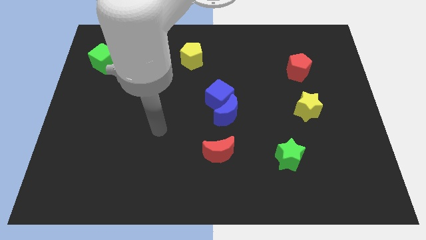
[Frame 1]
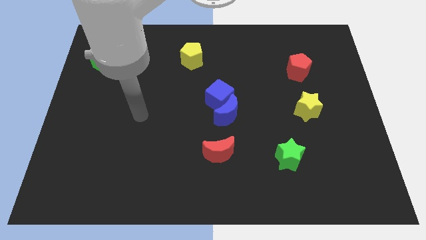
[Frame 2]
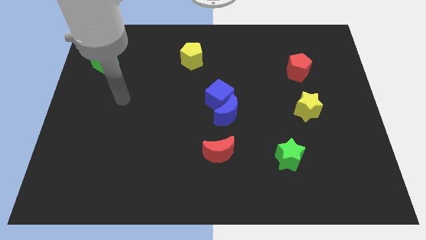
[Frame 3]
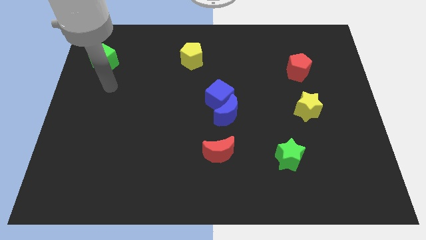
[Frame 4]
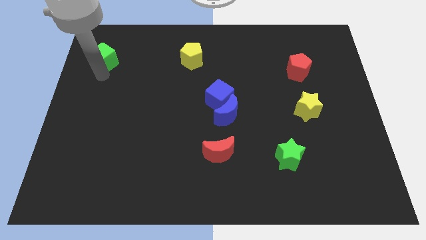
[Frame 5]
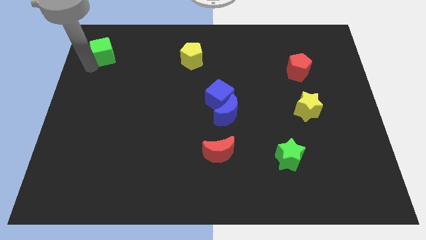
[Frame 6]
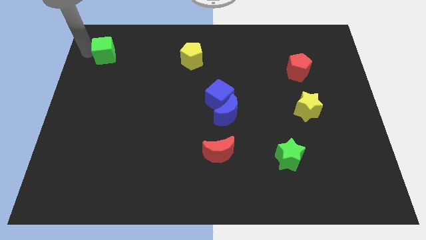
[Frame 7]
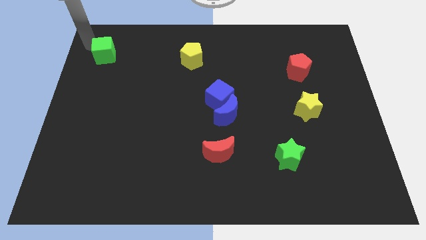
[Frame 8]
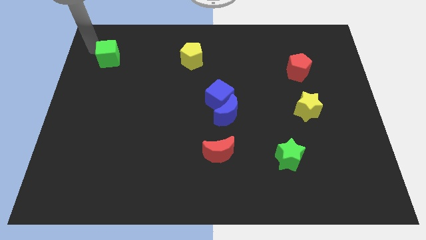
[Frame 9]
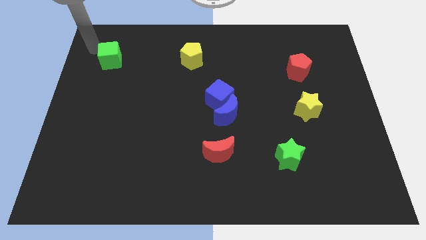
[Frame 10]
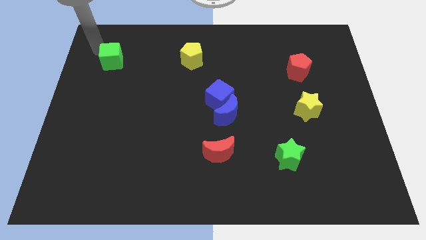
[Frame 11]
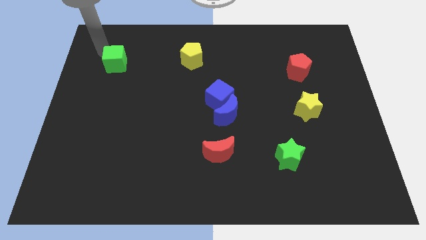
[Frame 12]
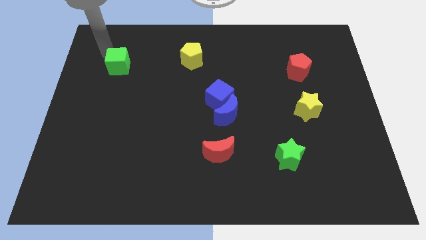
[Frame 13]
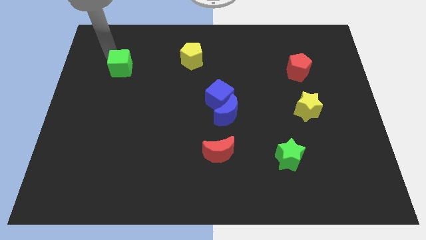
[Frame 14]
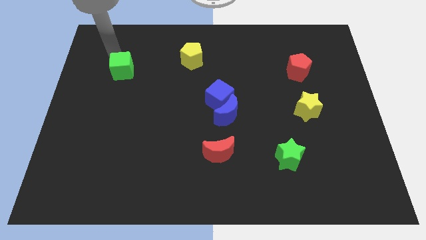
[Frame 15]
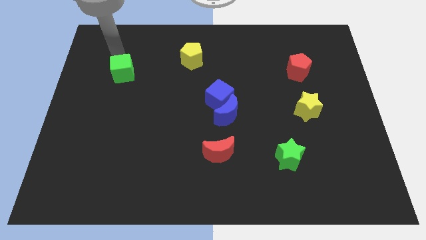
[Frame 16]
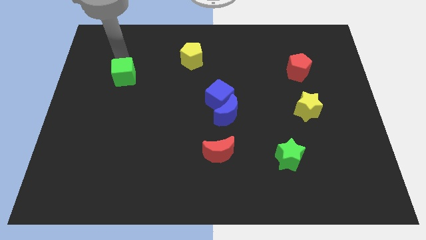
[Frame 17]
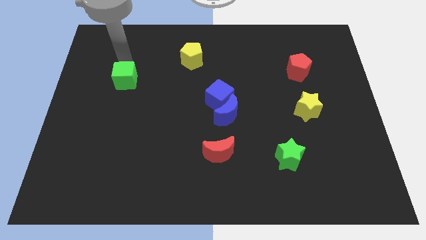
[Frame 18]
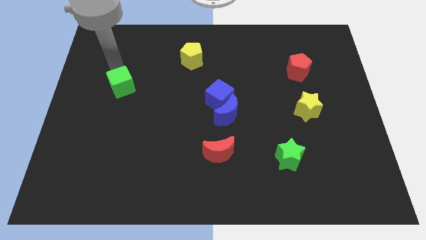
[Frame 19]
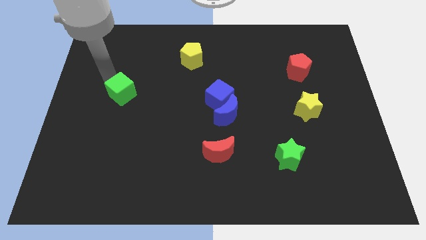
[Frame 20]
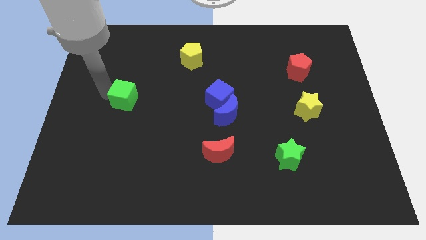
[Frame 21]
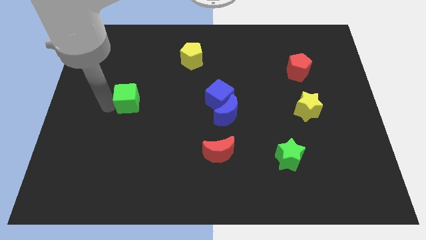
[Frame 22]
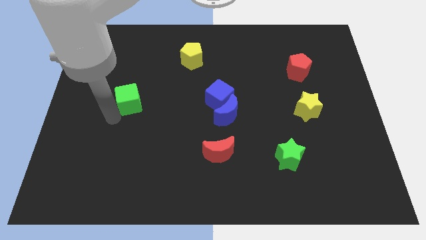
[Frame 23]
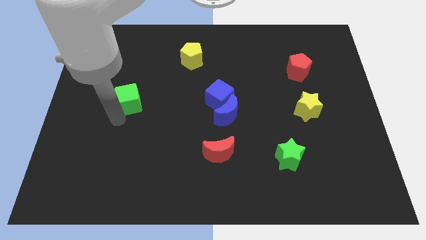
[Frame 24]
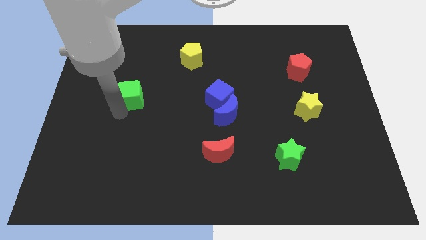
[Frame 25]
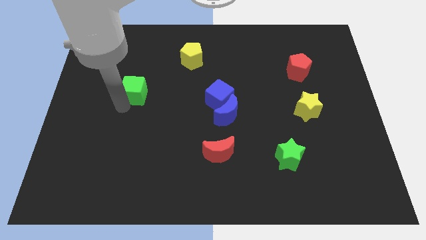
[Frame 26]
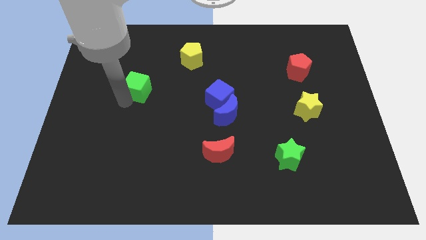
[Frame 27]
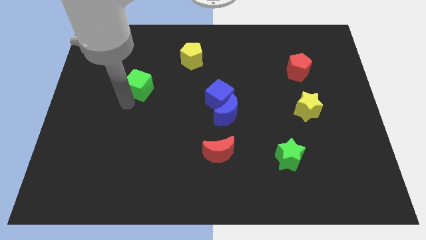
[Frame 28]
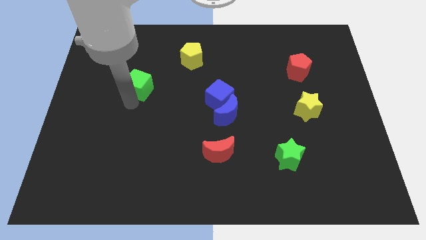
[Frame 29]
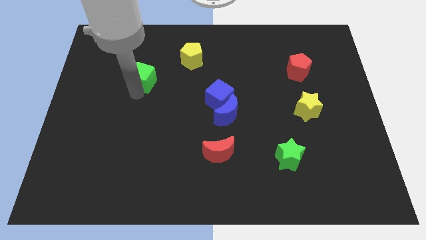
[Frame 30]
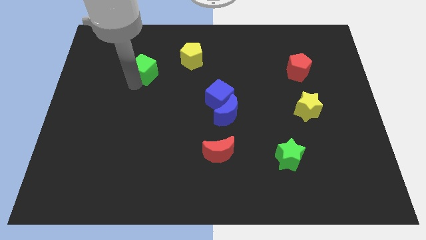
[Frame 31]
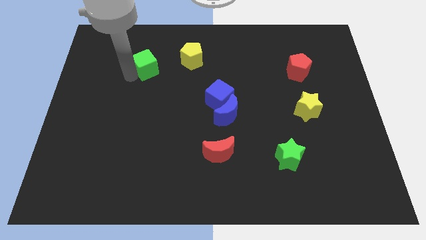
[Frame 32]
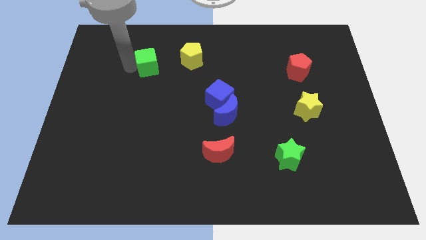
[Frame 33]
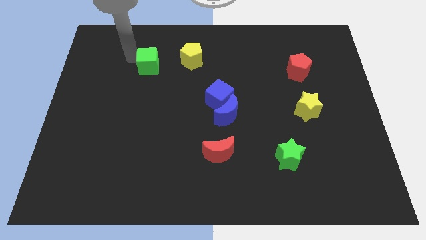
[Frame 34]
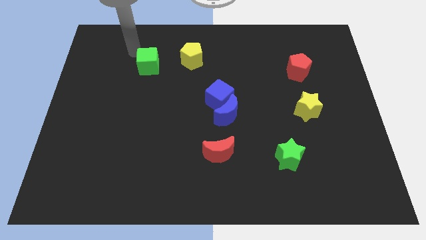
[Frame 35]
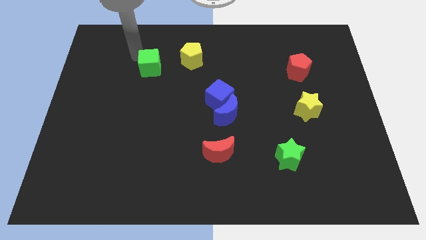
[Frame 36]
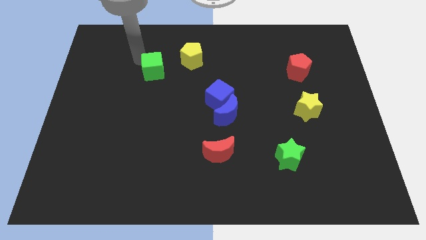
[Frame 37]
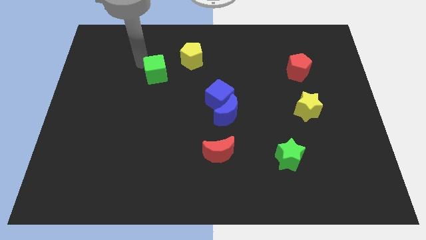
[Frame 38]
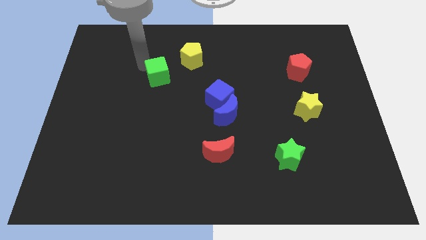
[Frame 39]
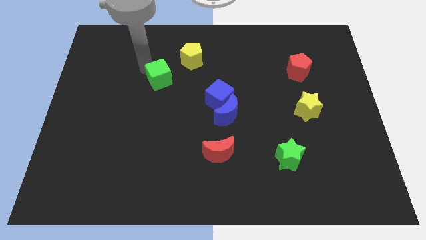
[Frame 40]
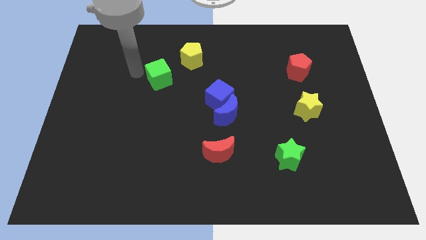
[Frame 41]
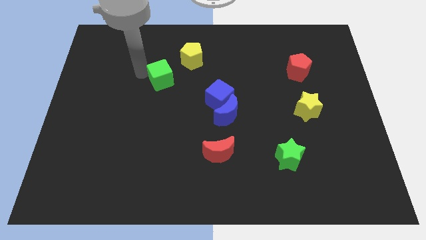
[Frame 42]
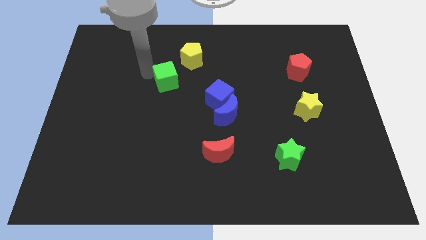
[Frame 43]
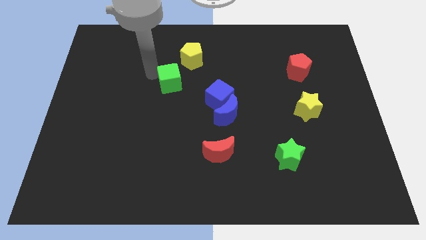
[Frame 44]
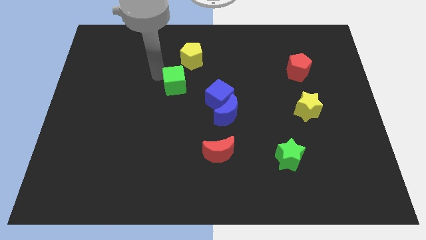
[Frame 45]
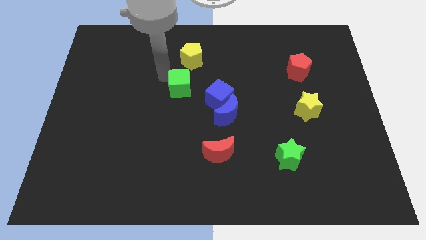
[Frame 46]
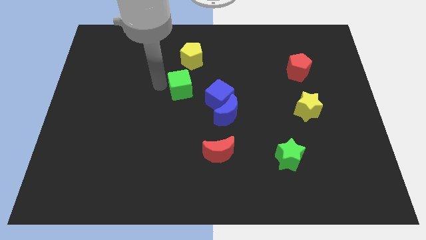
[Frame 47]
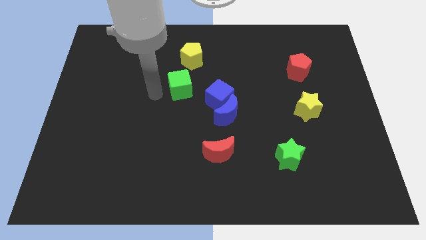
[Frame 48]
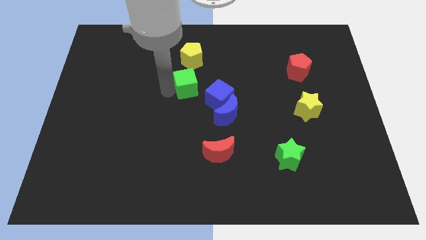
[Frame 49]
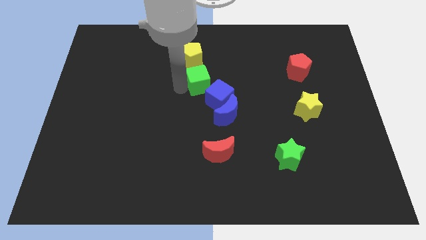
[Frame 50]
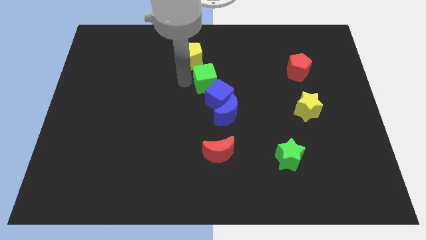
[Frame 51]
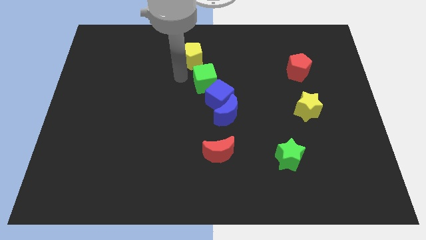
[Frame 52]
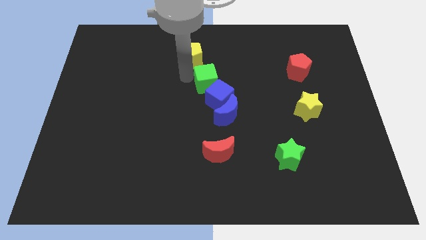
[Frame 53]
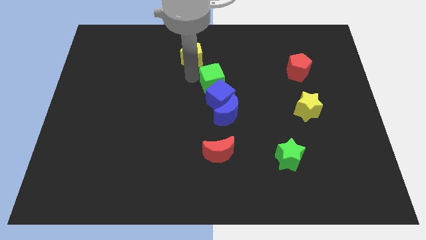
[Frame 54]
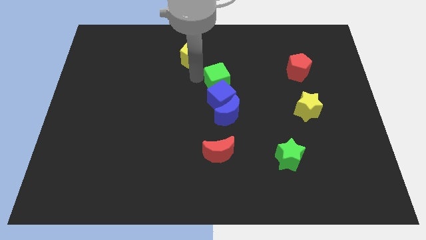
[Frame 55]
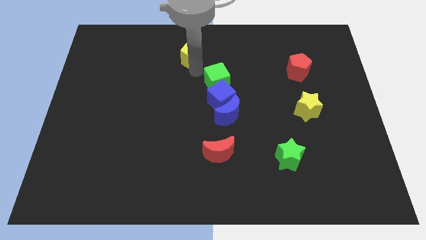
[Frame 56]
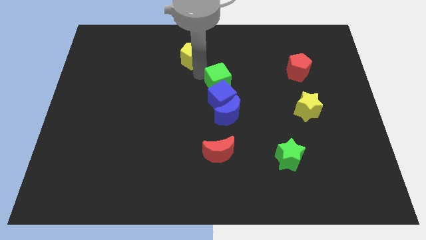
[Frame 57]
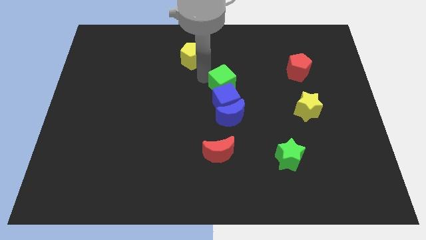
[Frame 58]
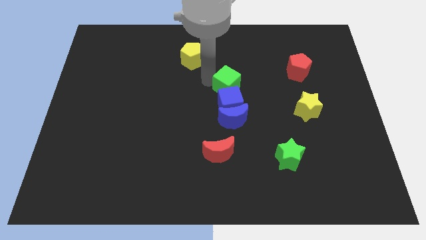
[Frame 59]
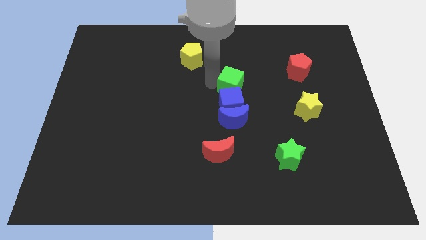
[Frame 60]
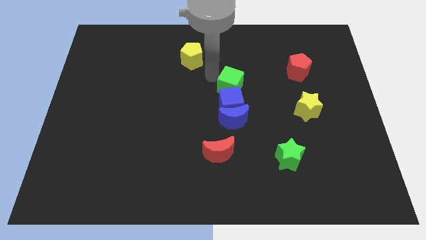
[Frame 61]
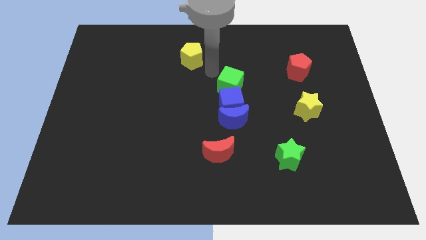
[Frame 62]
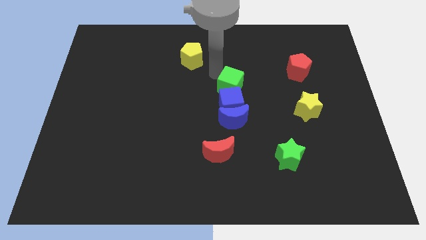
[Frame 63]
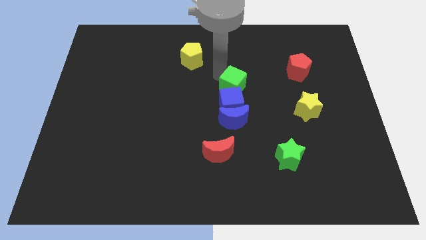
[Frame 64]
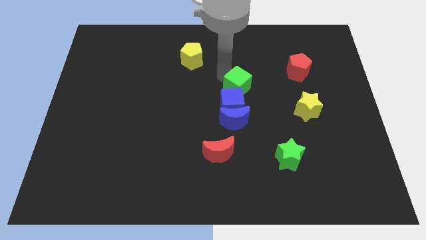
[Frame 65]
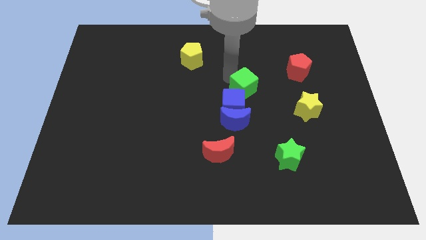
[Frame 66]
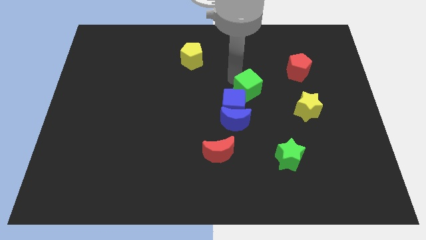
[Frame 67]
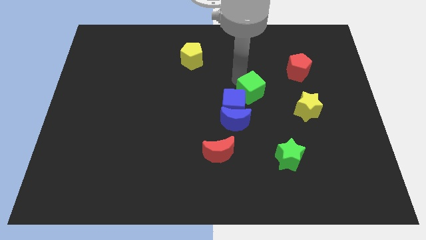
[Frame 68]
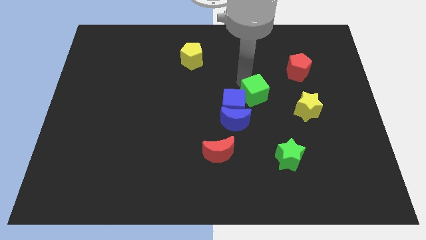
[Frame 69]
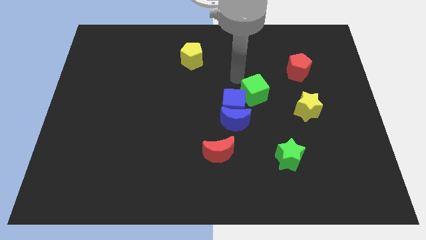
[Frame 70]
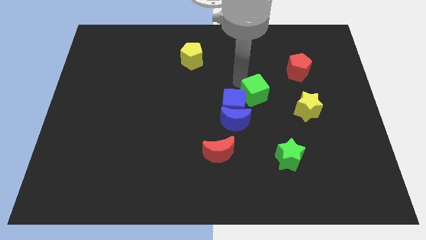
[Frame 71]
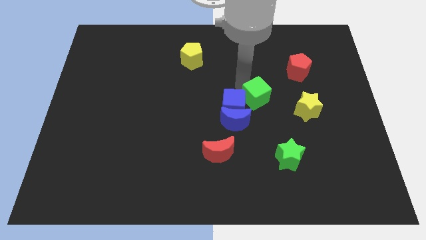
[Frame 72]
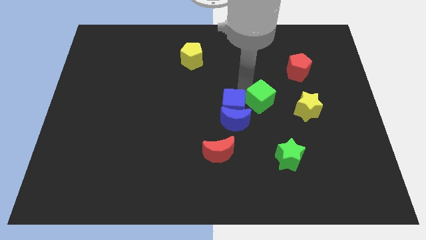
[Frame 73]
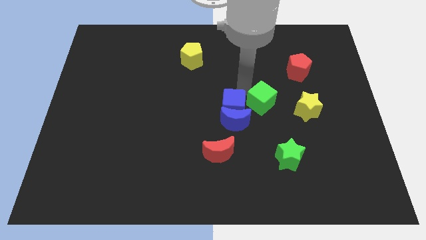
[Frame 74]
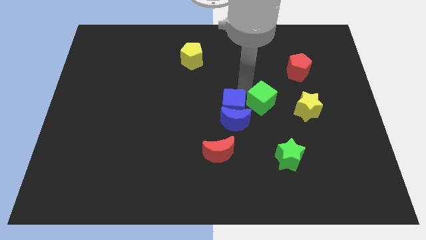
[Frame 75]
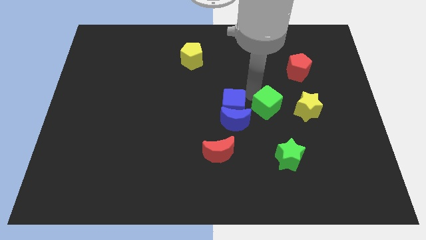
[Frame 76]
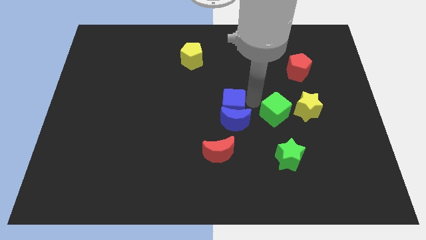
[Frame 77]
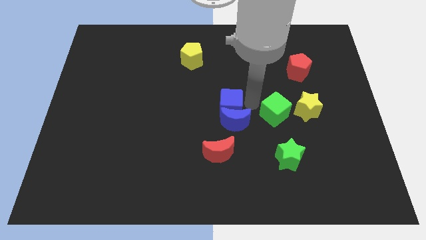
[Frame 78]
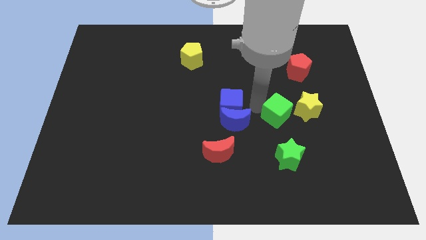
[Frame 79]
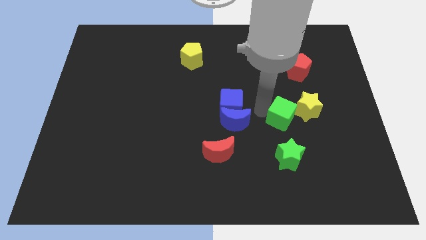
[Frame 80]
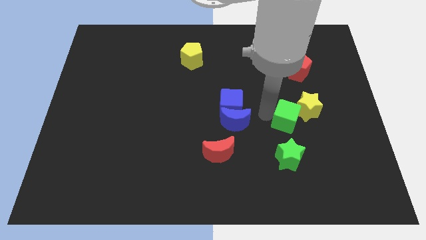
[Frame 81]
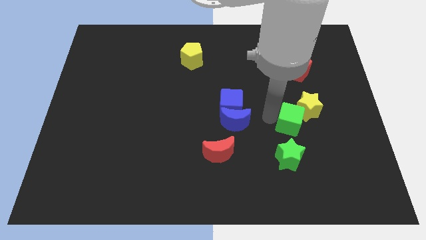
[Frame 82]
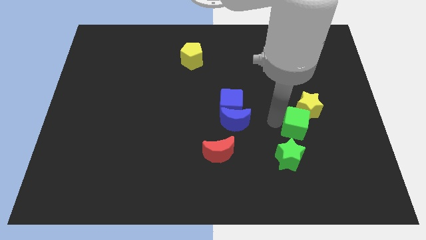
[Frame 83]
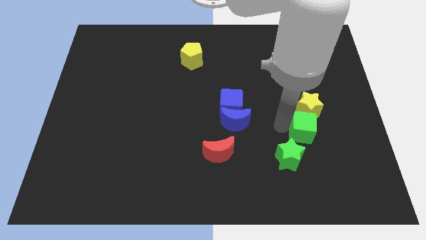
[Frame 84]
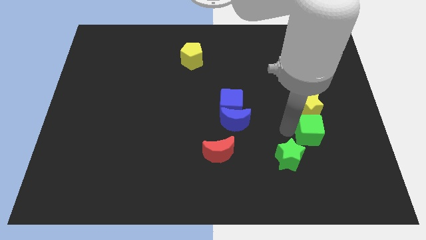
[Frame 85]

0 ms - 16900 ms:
put the green cube diagonally down and to the right of the yellow star
